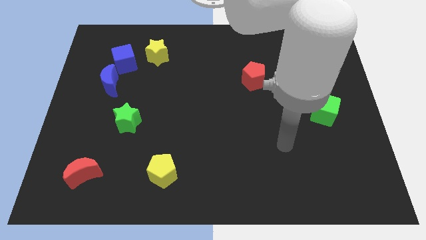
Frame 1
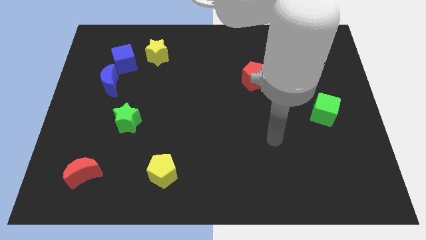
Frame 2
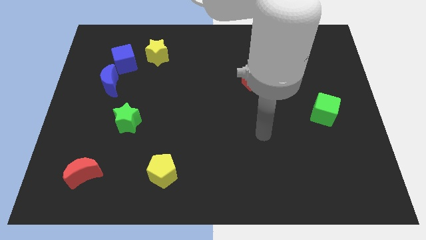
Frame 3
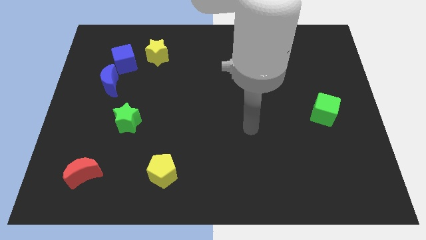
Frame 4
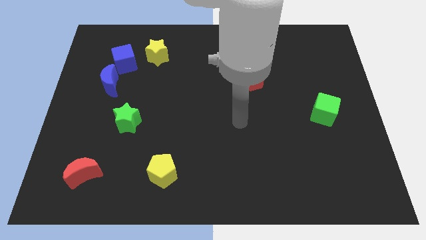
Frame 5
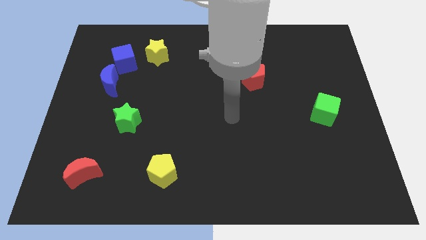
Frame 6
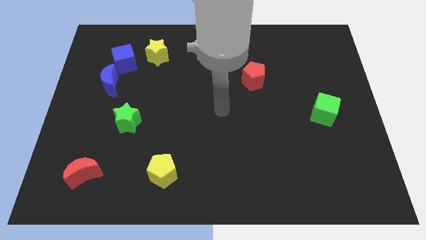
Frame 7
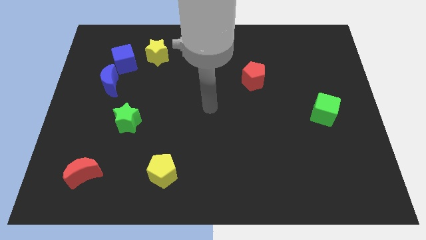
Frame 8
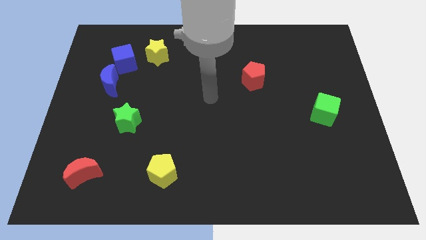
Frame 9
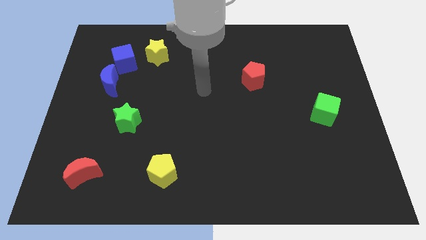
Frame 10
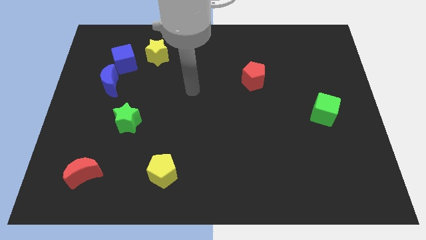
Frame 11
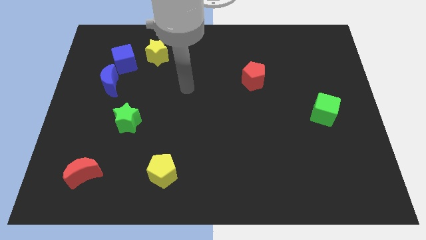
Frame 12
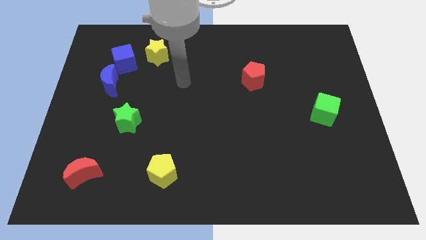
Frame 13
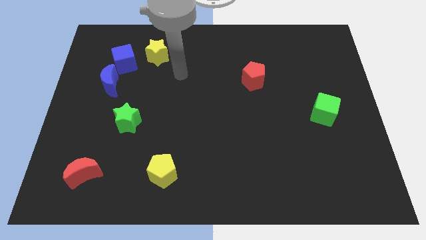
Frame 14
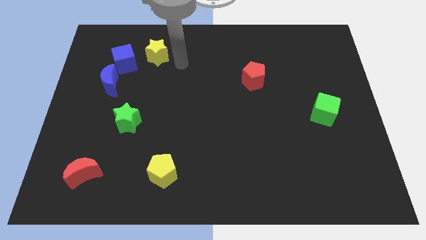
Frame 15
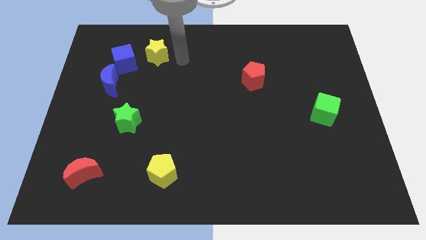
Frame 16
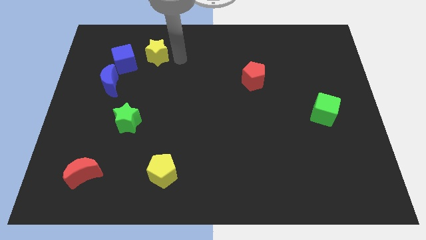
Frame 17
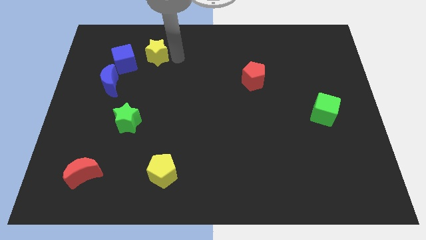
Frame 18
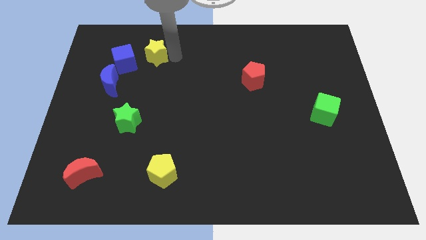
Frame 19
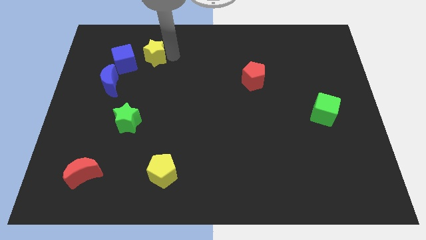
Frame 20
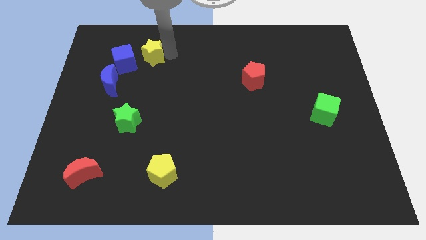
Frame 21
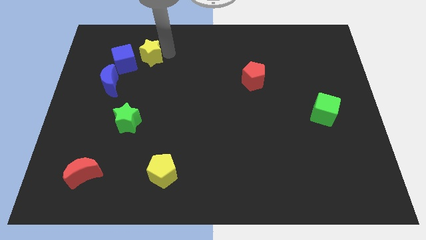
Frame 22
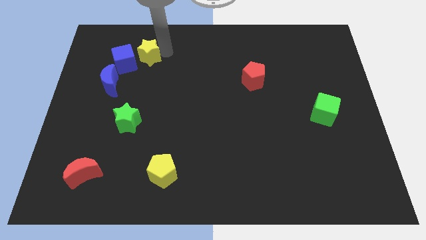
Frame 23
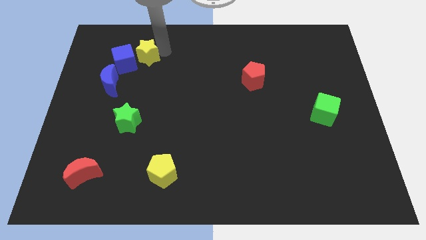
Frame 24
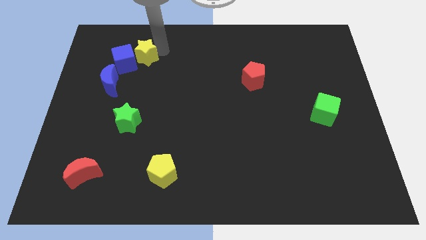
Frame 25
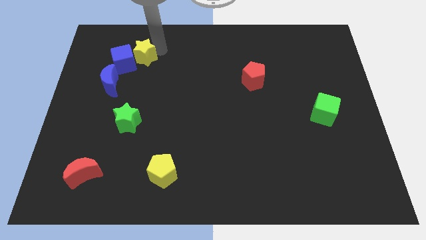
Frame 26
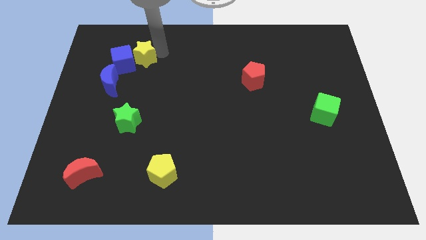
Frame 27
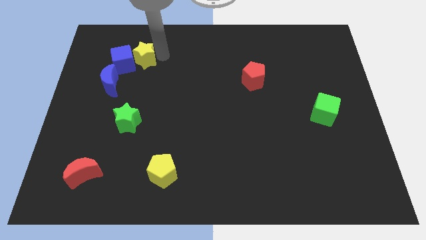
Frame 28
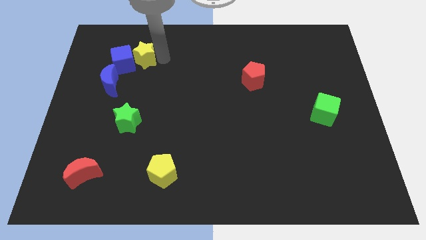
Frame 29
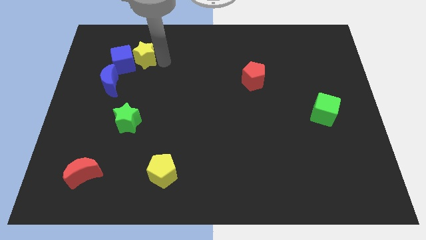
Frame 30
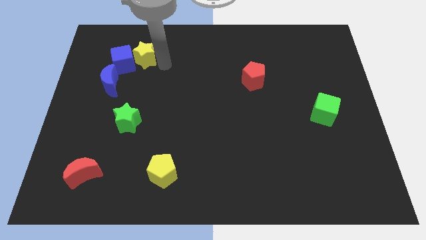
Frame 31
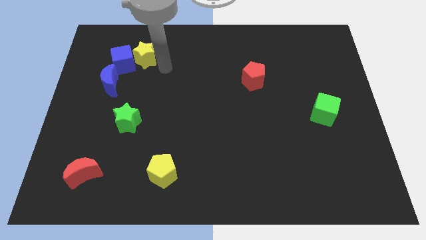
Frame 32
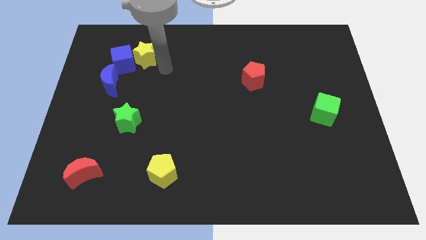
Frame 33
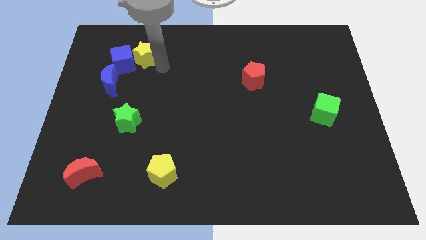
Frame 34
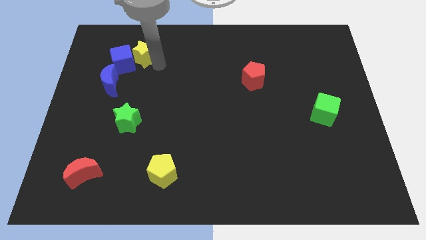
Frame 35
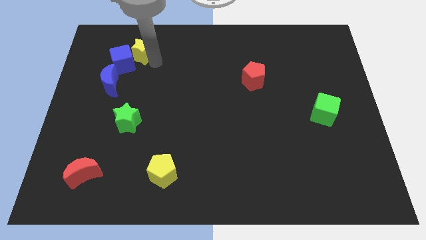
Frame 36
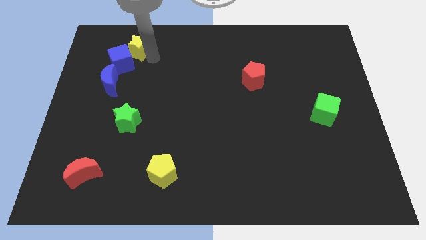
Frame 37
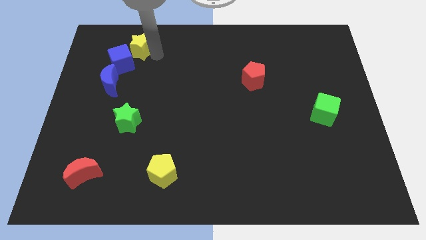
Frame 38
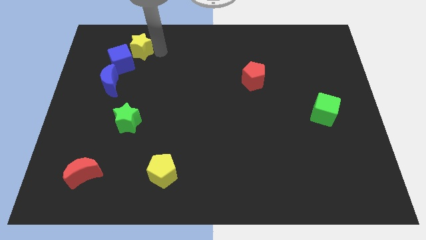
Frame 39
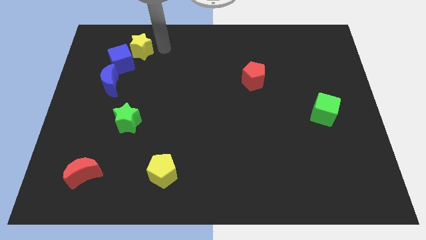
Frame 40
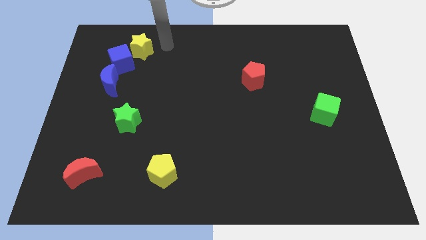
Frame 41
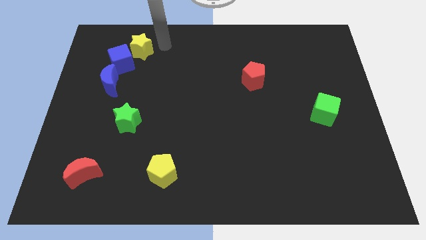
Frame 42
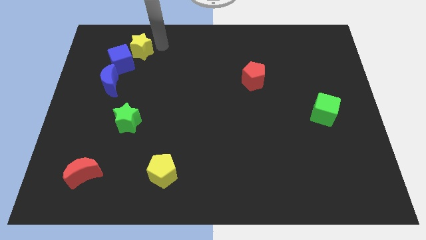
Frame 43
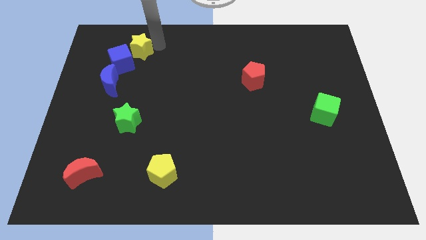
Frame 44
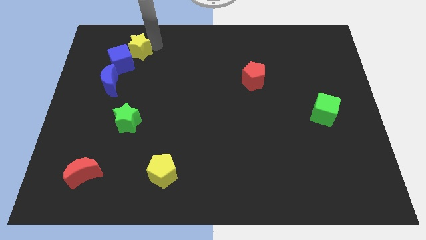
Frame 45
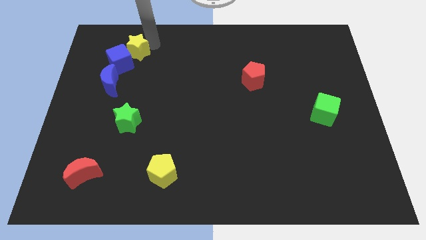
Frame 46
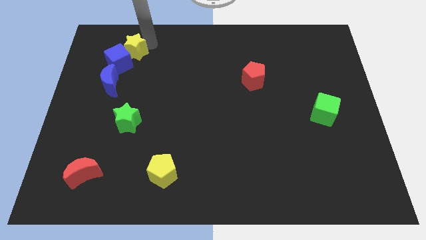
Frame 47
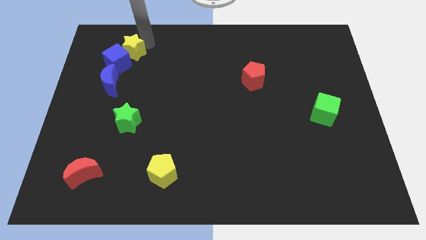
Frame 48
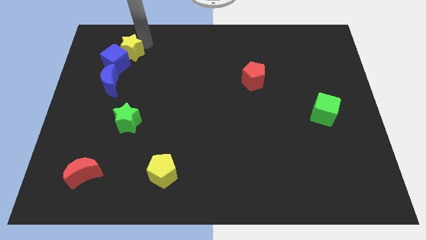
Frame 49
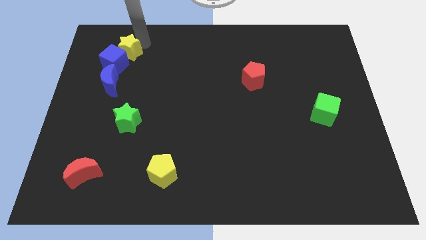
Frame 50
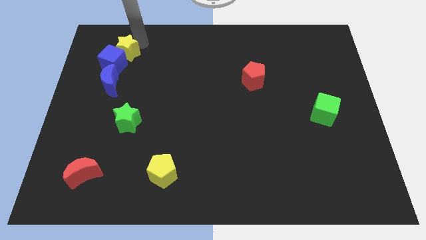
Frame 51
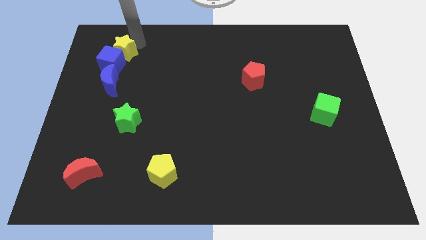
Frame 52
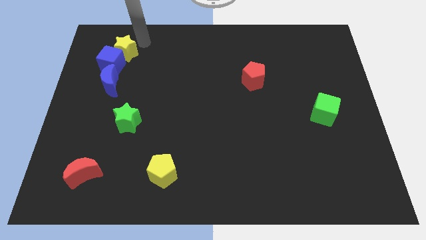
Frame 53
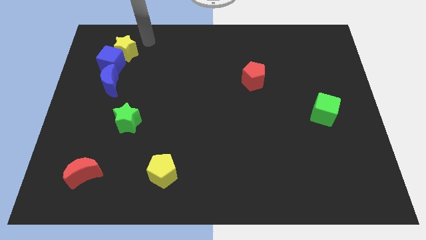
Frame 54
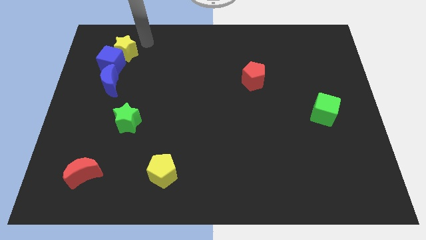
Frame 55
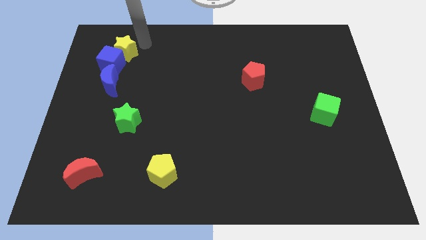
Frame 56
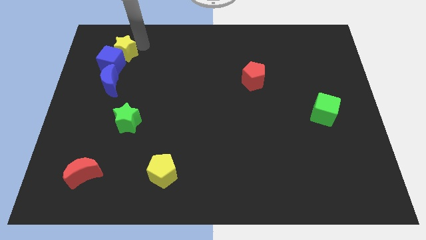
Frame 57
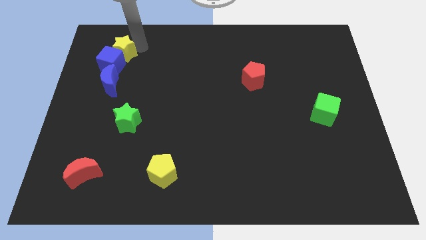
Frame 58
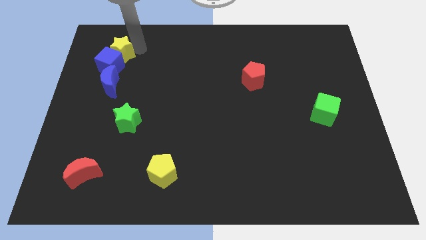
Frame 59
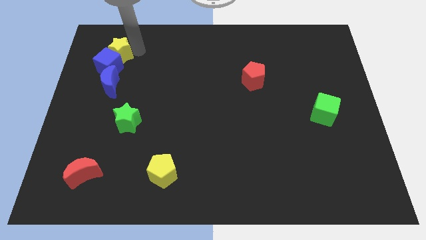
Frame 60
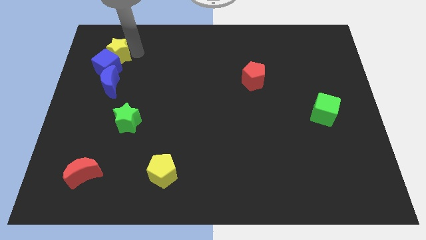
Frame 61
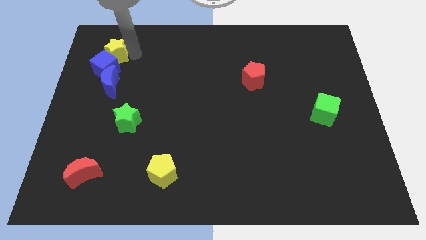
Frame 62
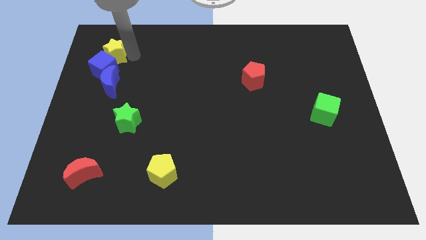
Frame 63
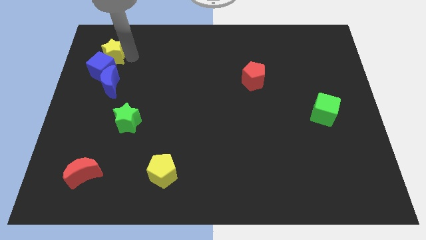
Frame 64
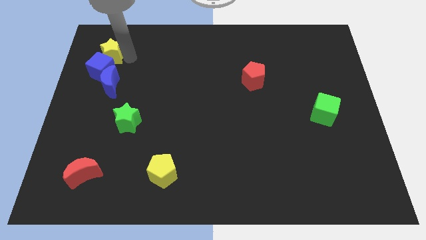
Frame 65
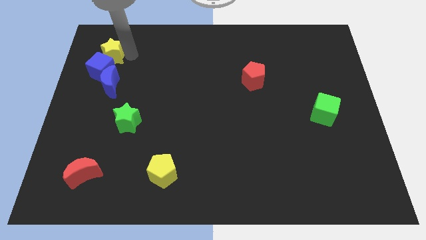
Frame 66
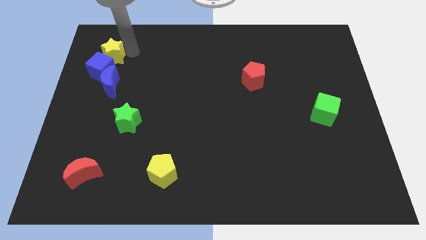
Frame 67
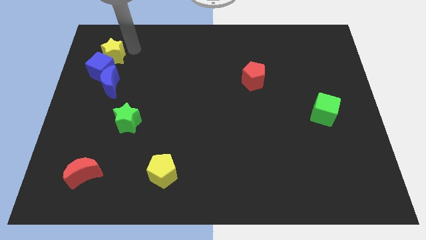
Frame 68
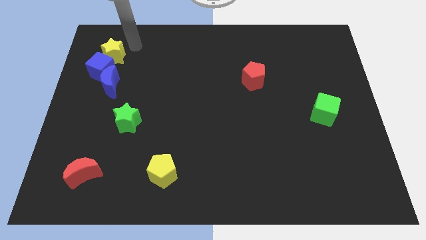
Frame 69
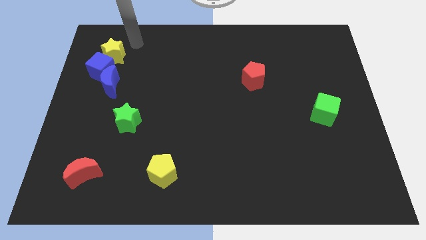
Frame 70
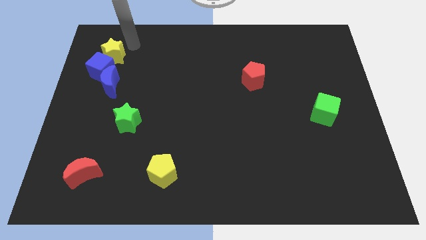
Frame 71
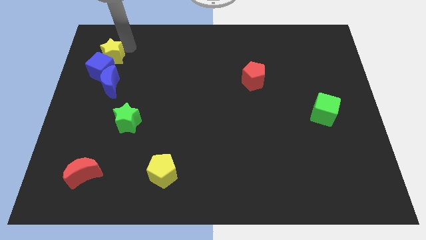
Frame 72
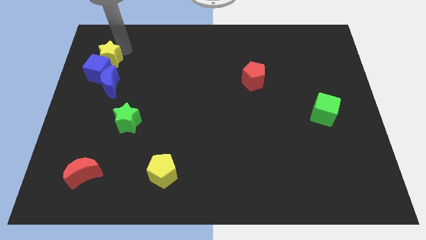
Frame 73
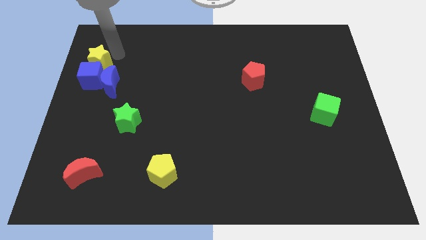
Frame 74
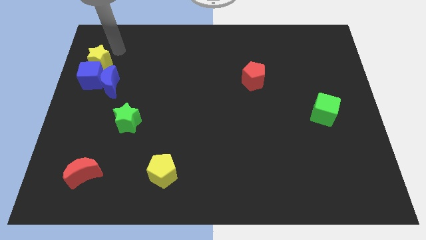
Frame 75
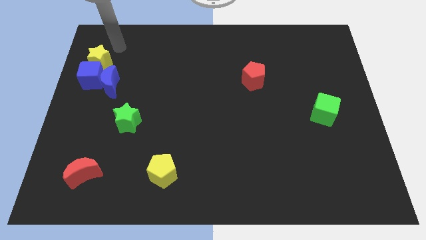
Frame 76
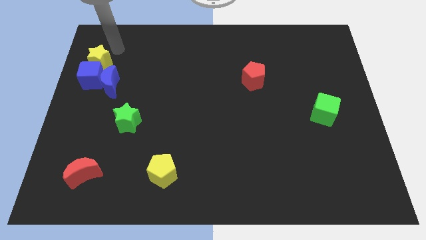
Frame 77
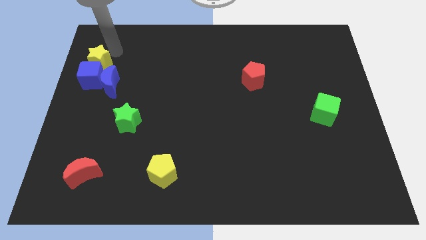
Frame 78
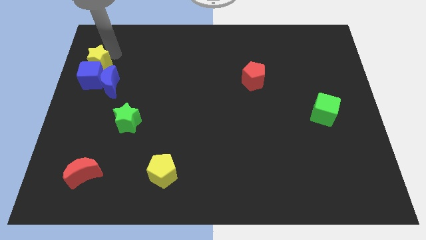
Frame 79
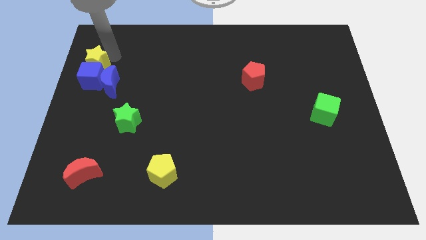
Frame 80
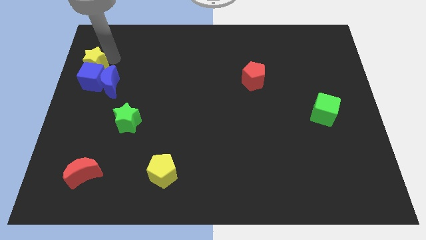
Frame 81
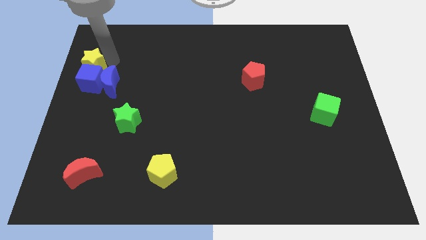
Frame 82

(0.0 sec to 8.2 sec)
move the yellow star to the left side of the board
